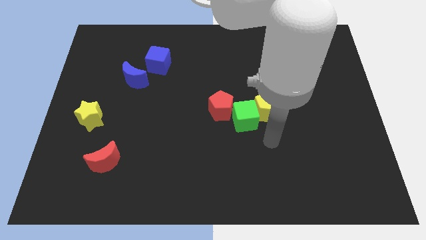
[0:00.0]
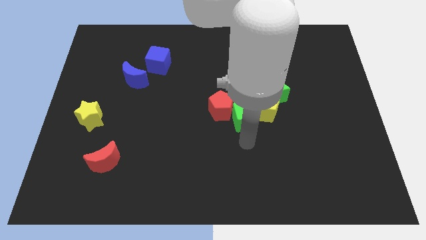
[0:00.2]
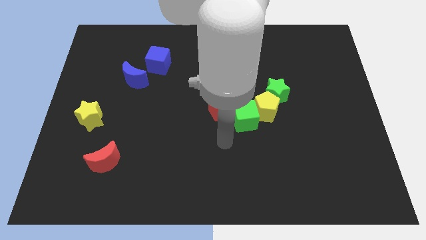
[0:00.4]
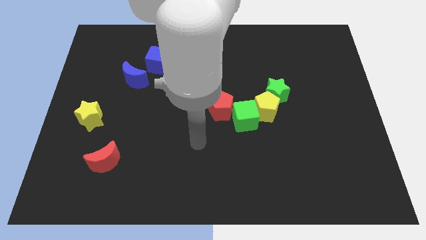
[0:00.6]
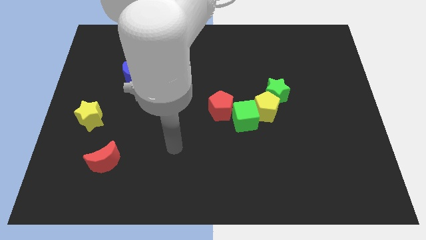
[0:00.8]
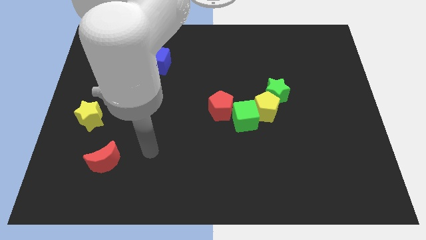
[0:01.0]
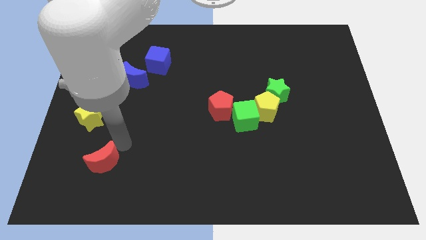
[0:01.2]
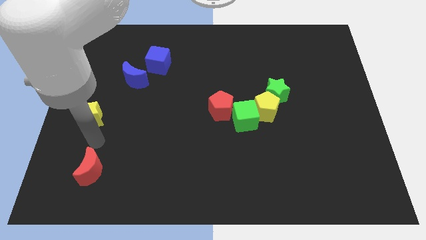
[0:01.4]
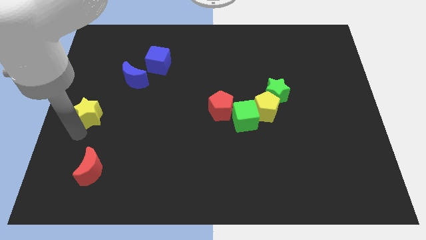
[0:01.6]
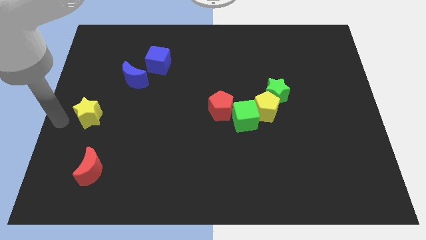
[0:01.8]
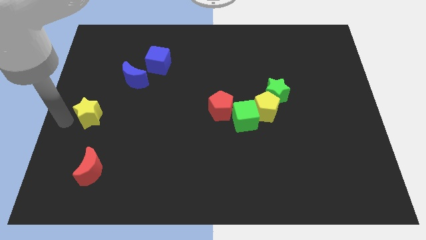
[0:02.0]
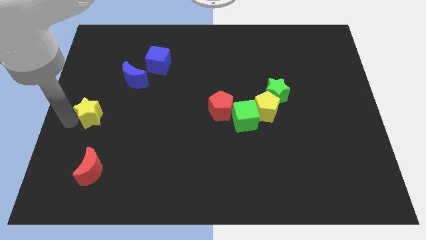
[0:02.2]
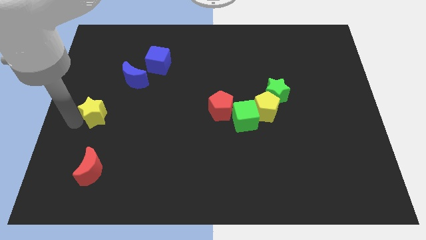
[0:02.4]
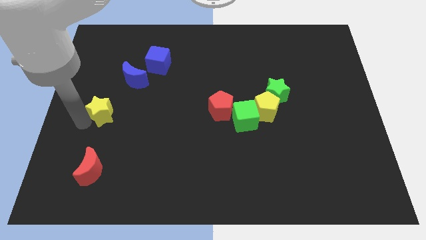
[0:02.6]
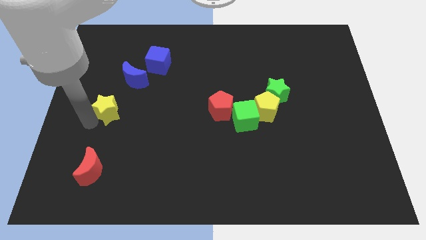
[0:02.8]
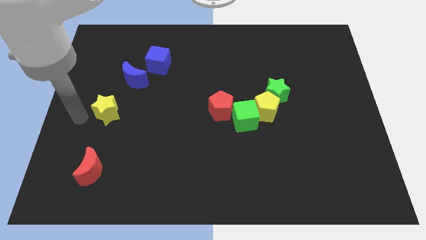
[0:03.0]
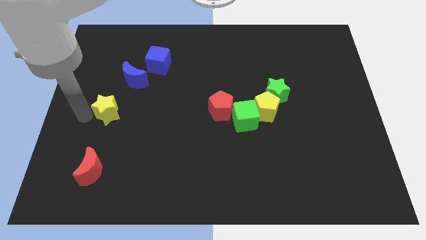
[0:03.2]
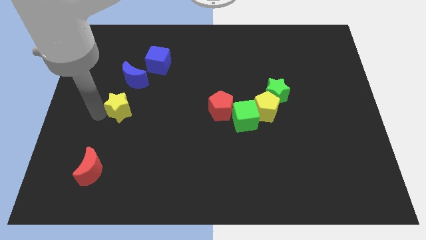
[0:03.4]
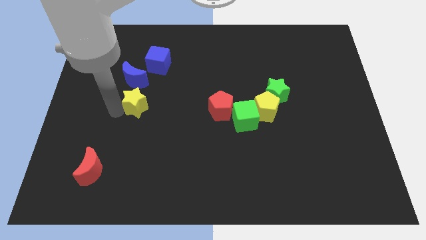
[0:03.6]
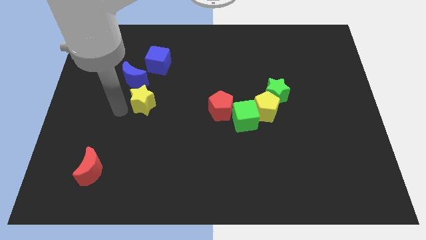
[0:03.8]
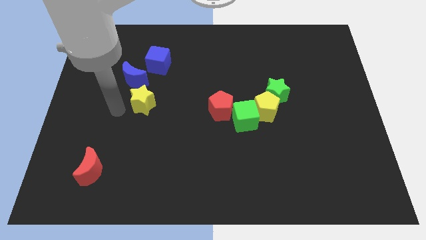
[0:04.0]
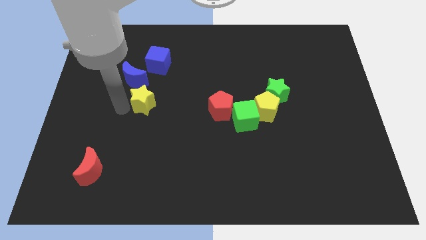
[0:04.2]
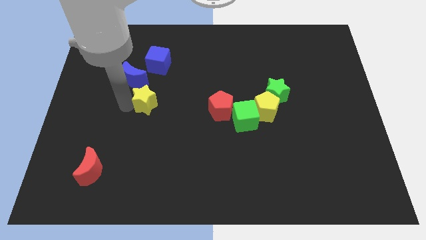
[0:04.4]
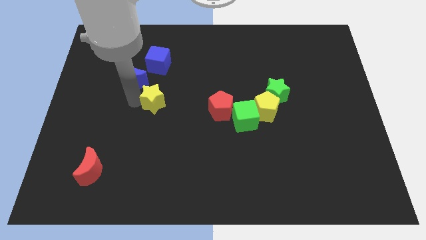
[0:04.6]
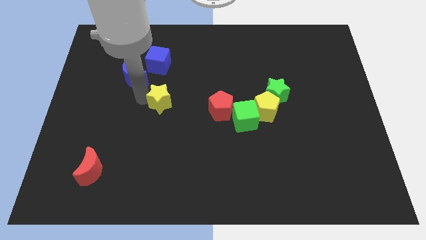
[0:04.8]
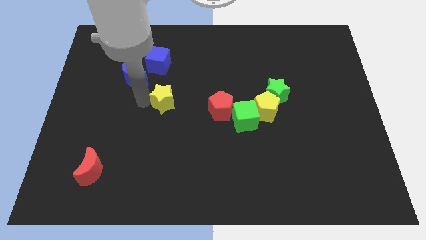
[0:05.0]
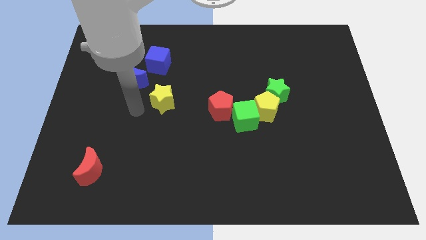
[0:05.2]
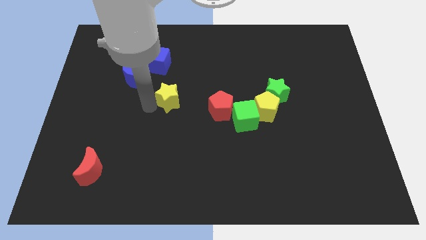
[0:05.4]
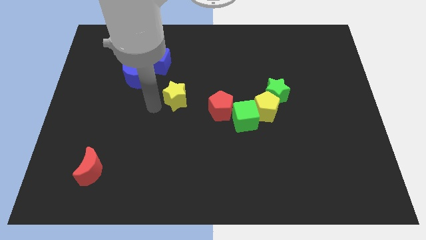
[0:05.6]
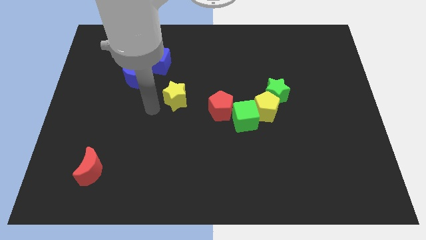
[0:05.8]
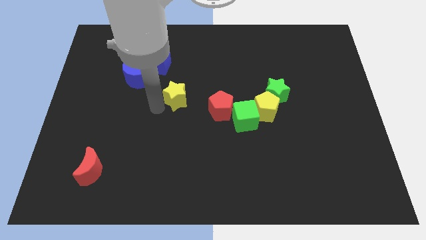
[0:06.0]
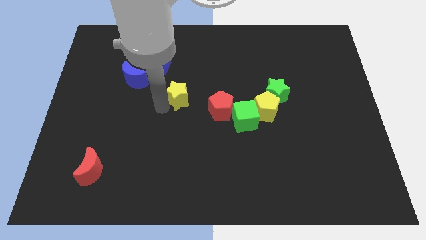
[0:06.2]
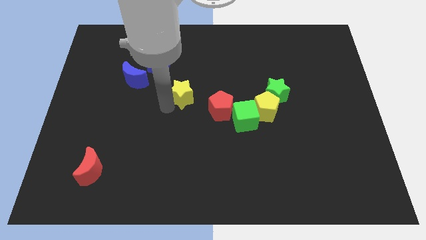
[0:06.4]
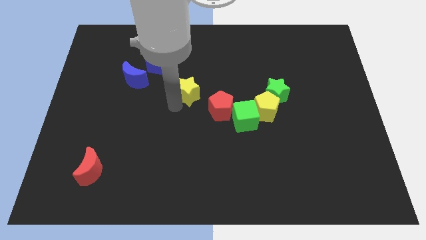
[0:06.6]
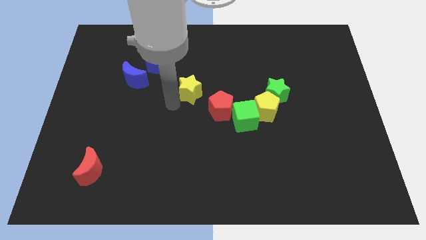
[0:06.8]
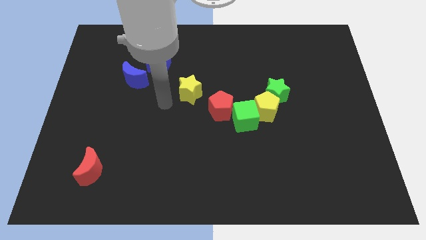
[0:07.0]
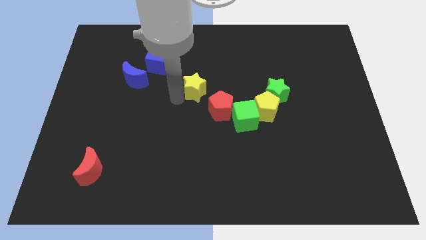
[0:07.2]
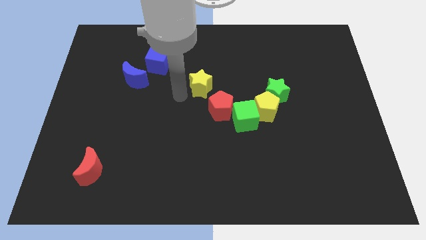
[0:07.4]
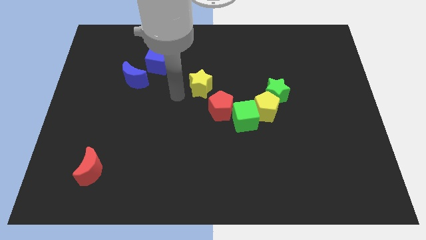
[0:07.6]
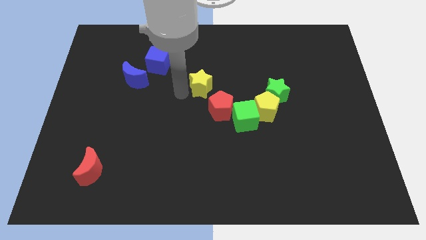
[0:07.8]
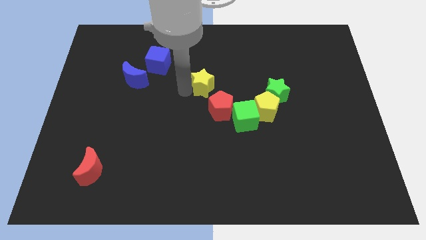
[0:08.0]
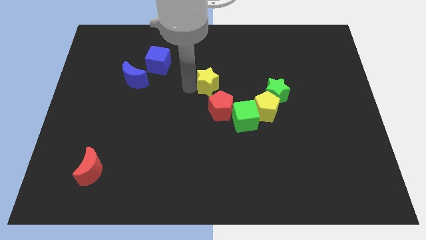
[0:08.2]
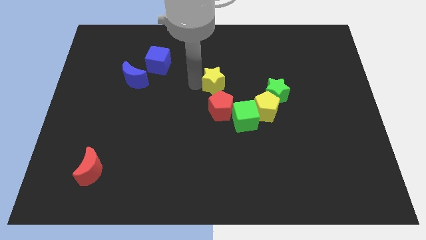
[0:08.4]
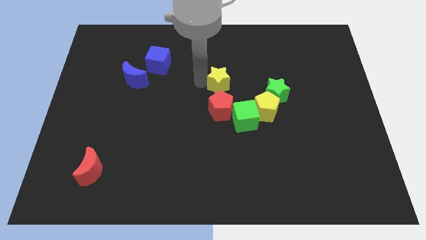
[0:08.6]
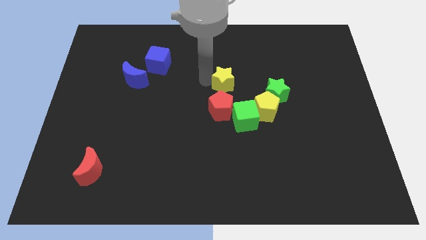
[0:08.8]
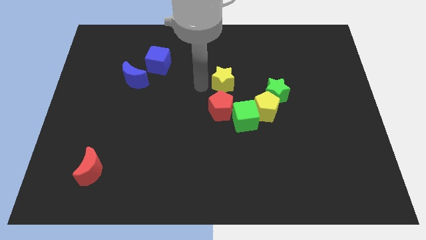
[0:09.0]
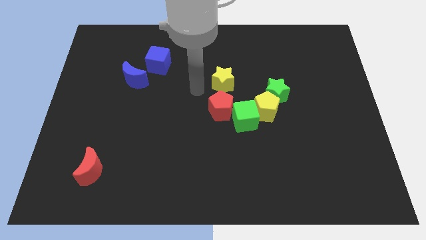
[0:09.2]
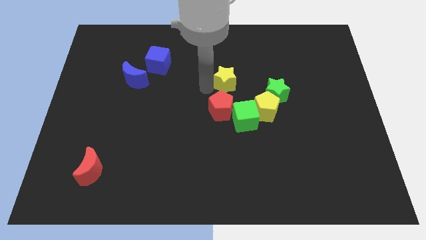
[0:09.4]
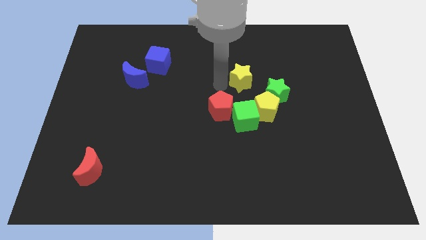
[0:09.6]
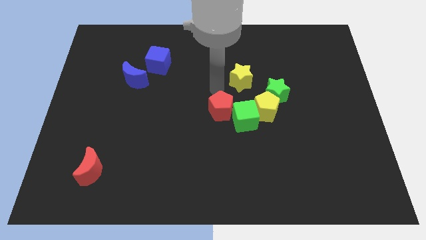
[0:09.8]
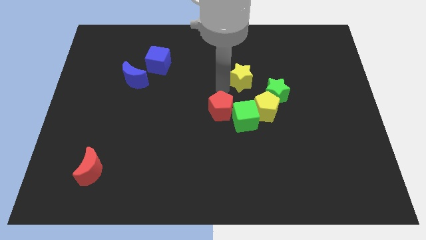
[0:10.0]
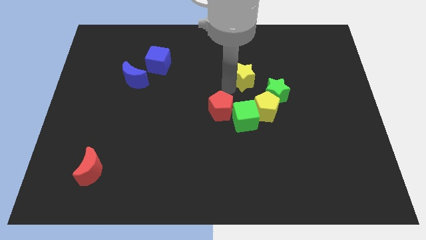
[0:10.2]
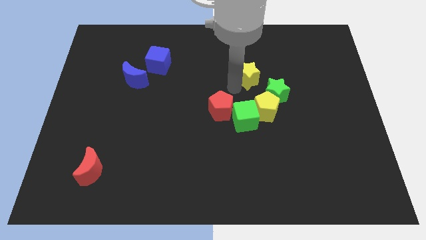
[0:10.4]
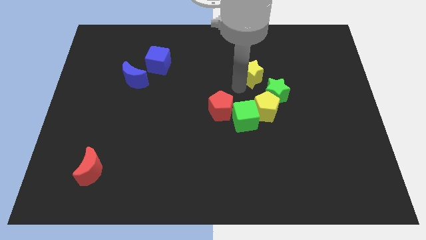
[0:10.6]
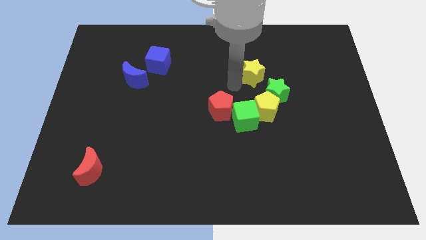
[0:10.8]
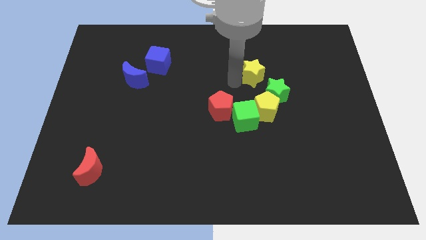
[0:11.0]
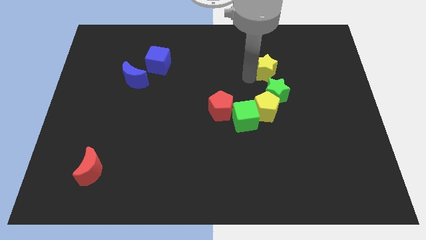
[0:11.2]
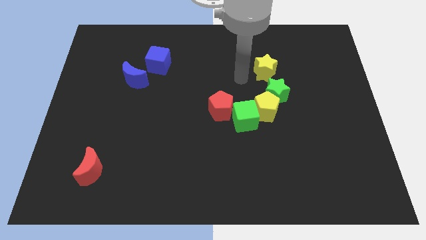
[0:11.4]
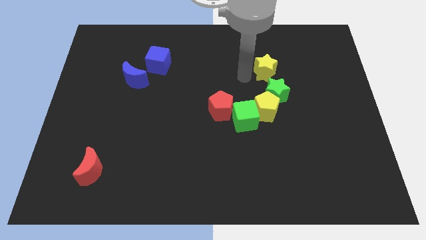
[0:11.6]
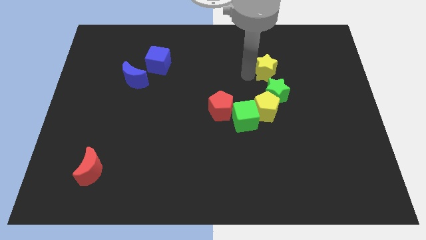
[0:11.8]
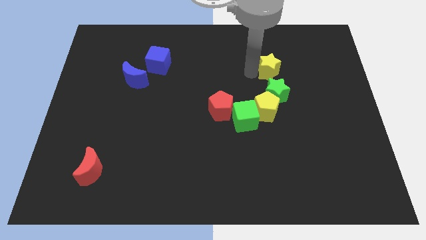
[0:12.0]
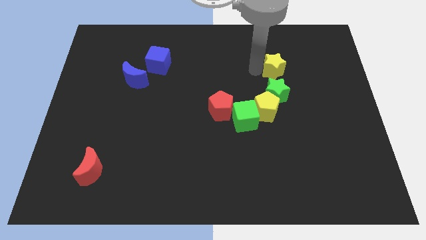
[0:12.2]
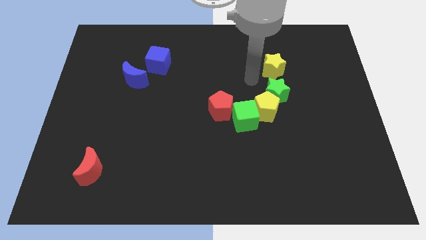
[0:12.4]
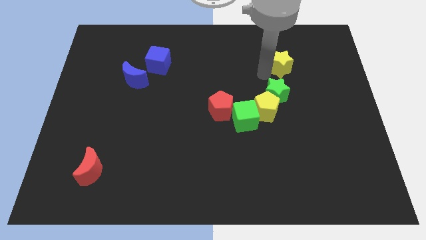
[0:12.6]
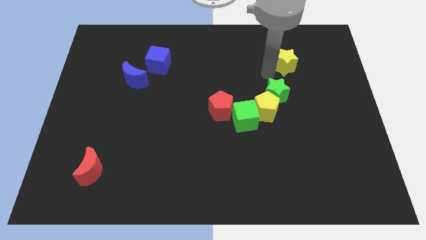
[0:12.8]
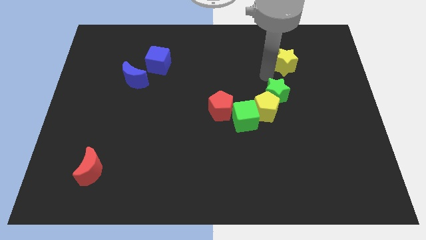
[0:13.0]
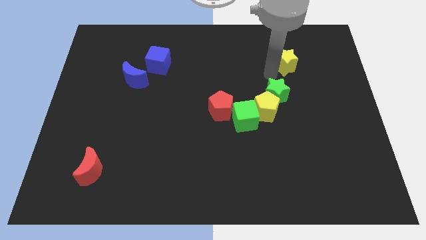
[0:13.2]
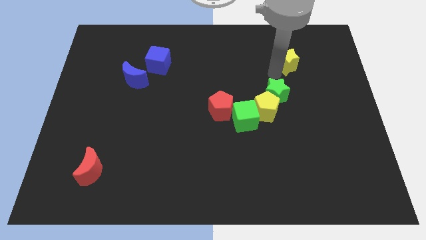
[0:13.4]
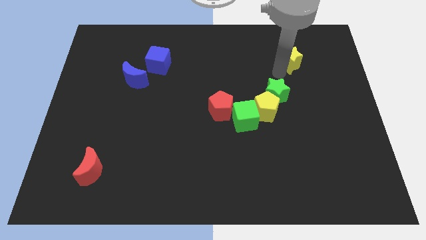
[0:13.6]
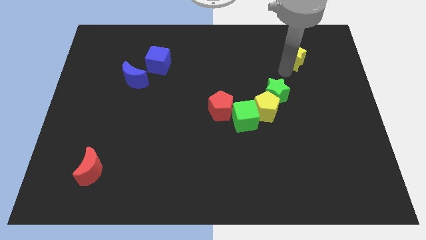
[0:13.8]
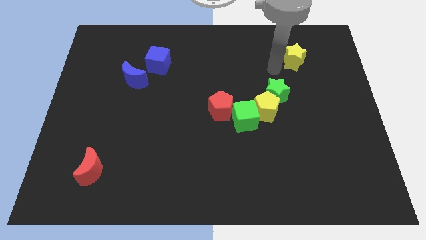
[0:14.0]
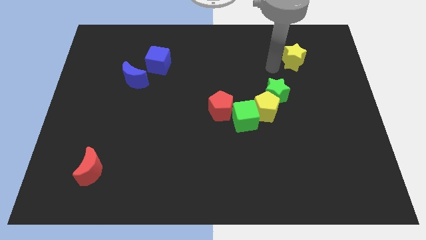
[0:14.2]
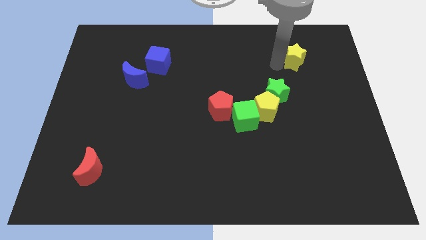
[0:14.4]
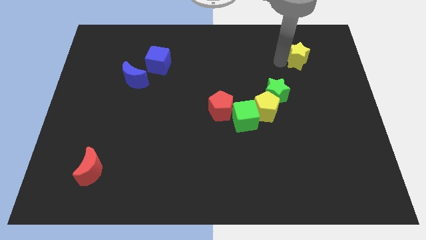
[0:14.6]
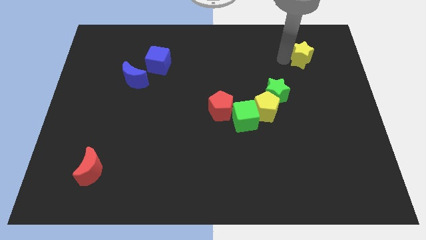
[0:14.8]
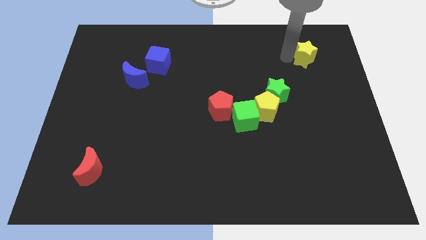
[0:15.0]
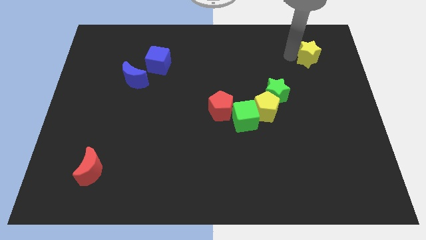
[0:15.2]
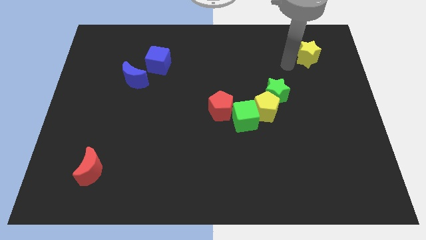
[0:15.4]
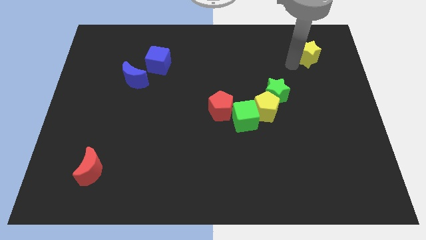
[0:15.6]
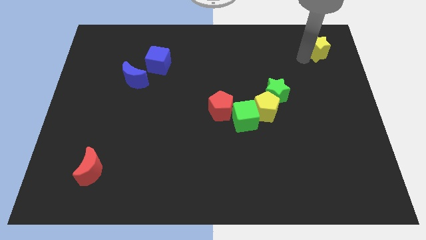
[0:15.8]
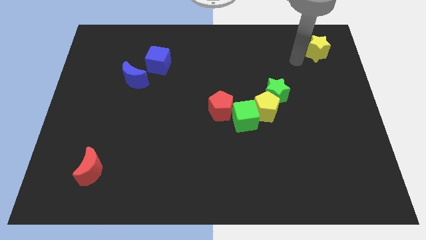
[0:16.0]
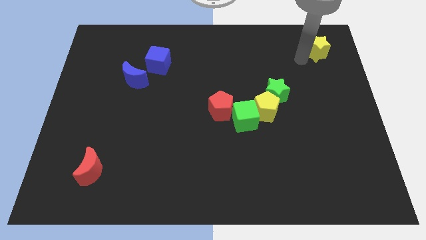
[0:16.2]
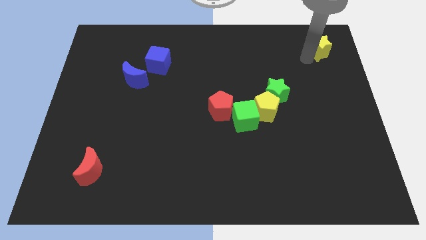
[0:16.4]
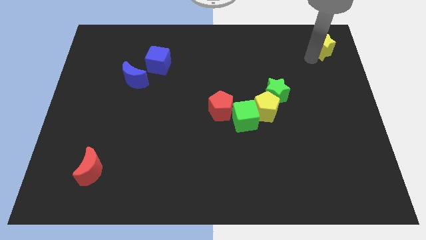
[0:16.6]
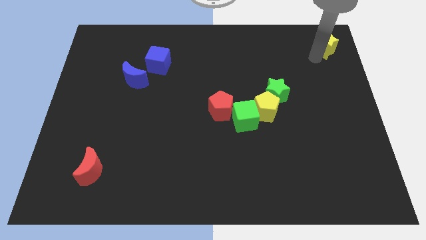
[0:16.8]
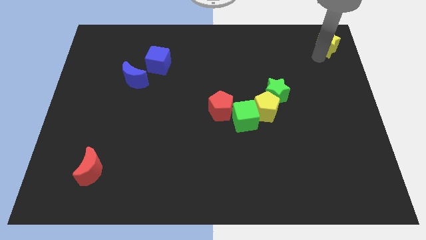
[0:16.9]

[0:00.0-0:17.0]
slide the yellow star to the top right of the board
